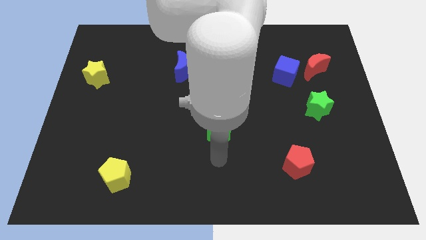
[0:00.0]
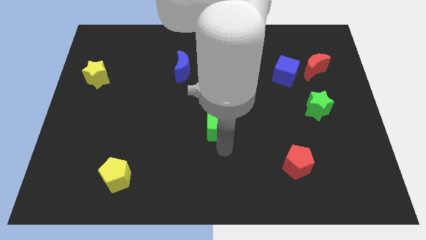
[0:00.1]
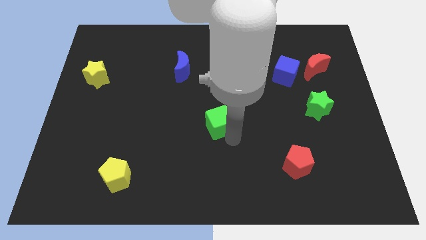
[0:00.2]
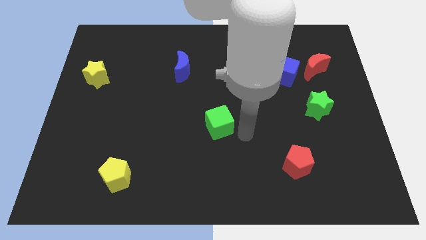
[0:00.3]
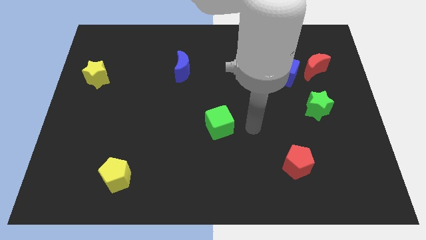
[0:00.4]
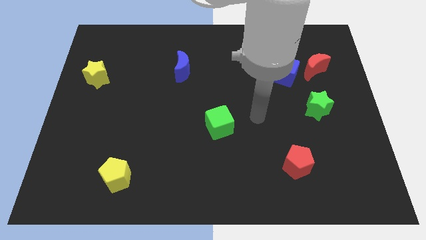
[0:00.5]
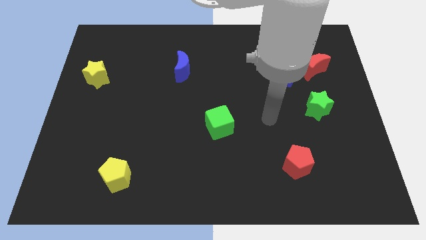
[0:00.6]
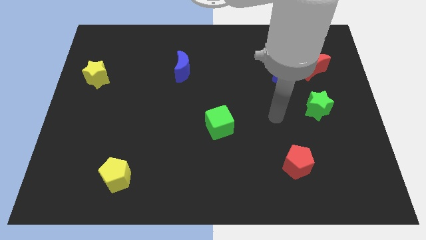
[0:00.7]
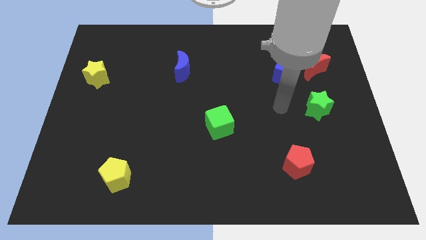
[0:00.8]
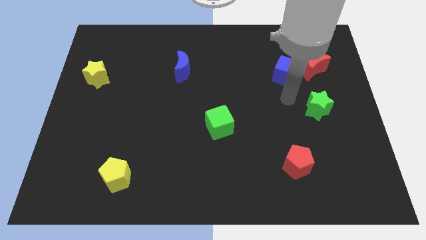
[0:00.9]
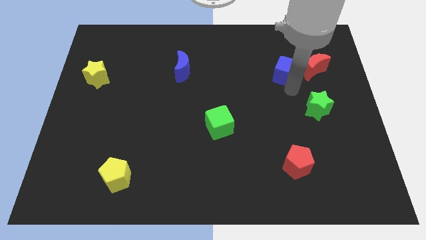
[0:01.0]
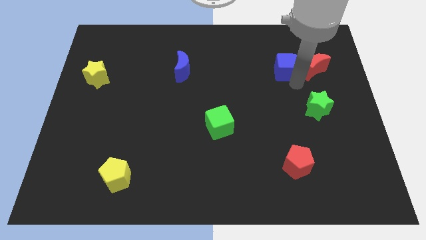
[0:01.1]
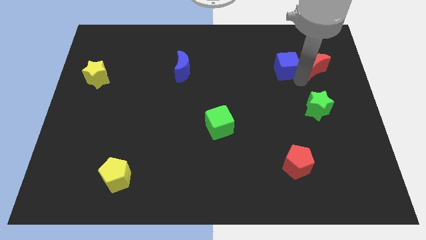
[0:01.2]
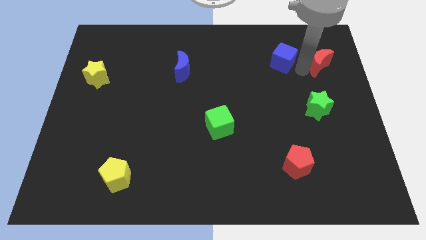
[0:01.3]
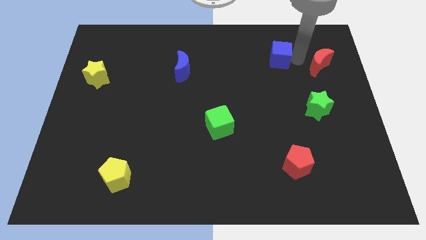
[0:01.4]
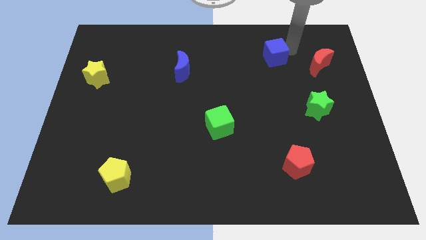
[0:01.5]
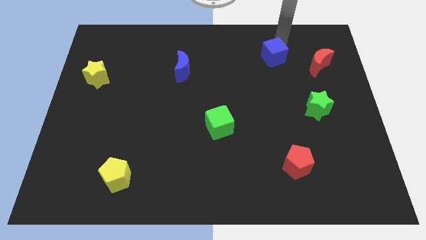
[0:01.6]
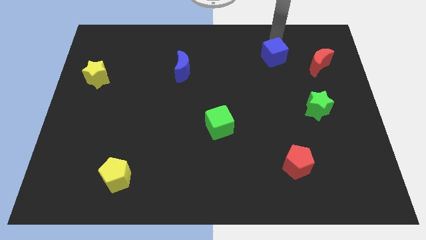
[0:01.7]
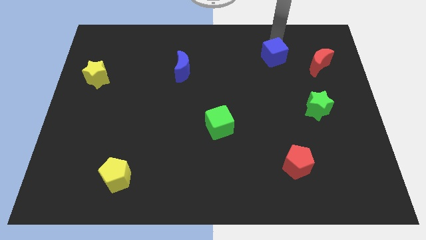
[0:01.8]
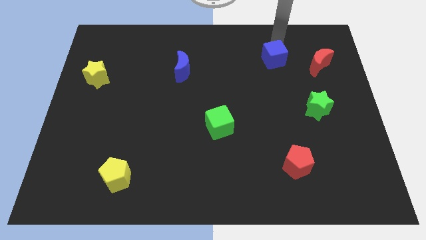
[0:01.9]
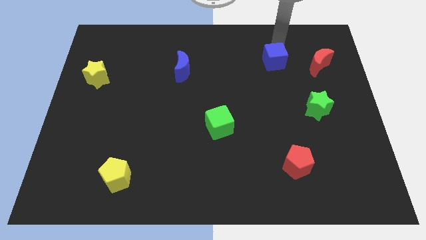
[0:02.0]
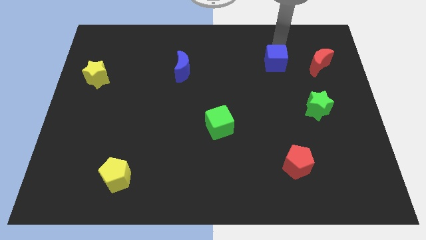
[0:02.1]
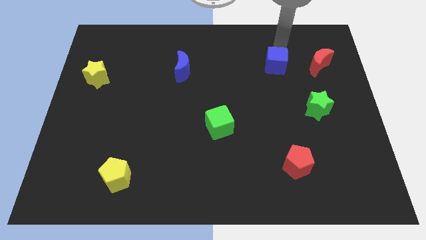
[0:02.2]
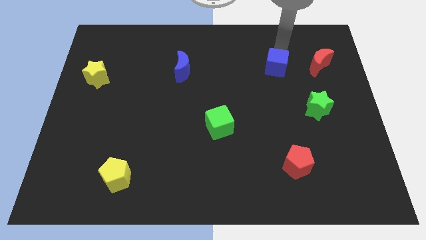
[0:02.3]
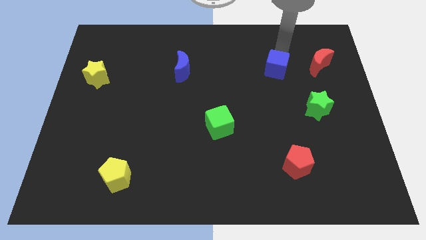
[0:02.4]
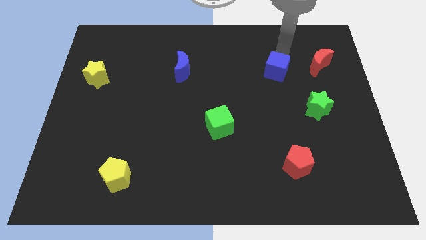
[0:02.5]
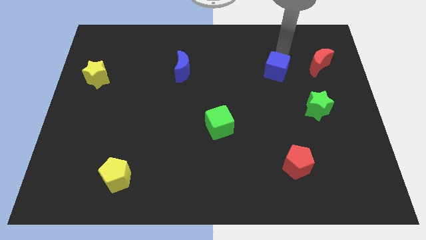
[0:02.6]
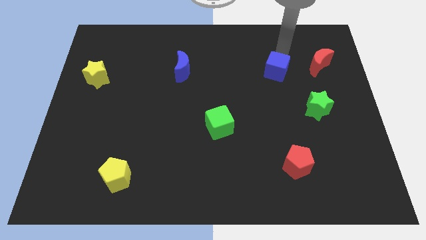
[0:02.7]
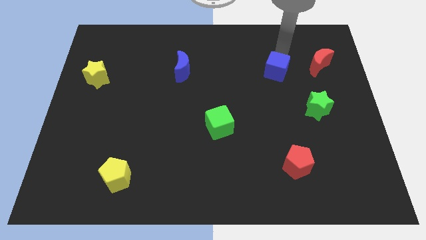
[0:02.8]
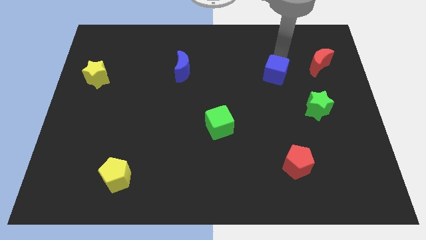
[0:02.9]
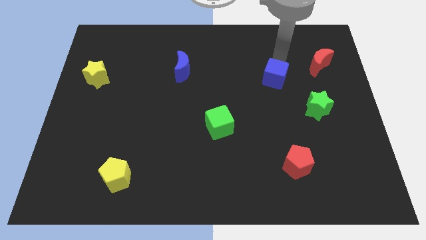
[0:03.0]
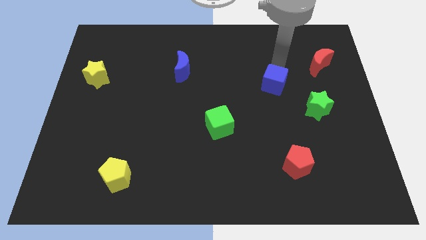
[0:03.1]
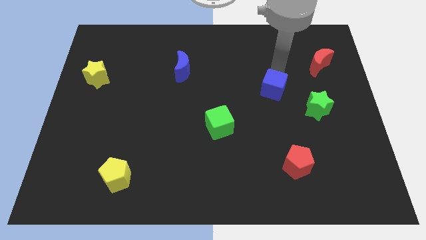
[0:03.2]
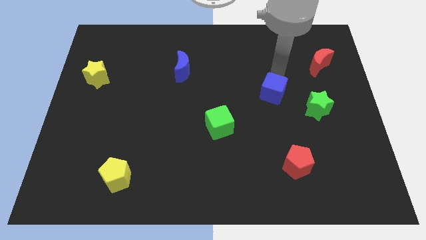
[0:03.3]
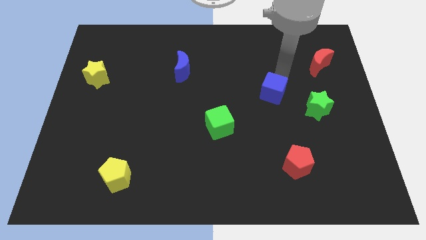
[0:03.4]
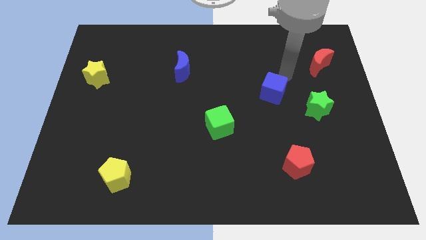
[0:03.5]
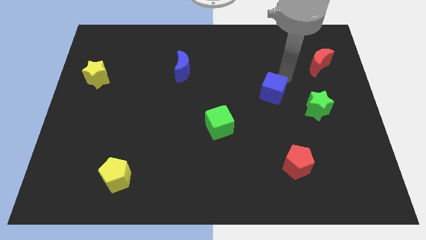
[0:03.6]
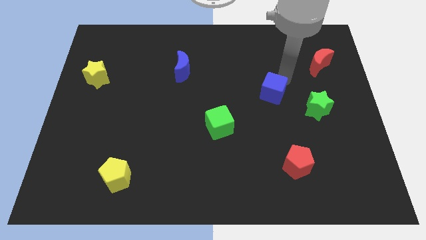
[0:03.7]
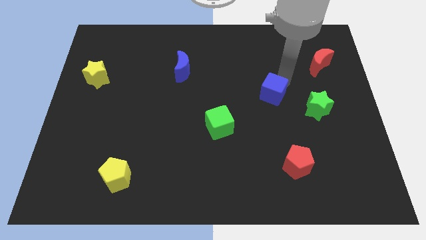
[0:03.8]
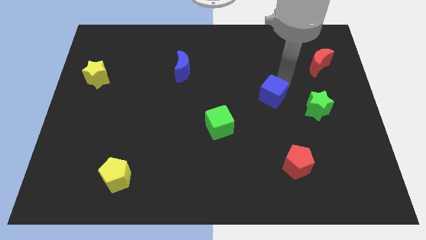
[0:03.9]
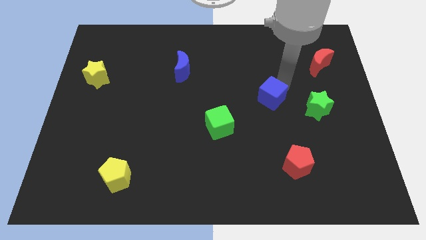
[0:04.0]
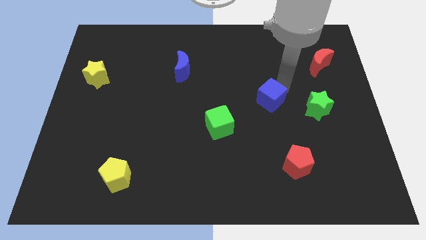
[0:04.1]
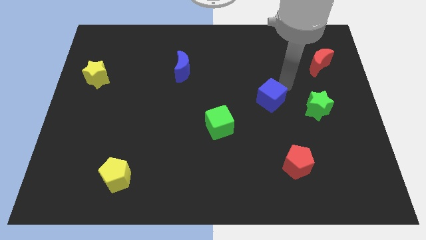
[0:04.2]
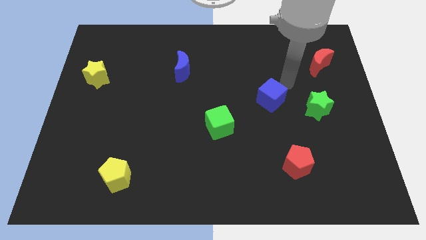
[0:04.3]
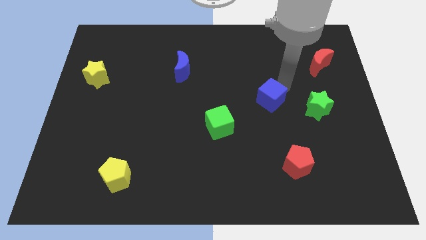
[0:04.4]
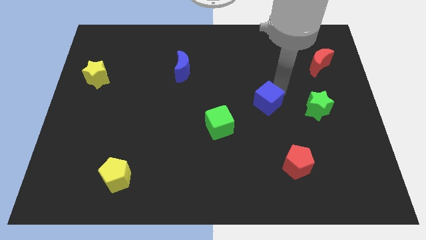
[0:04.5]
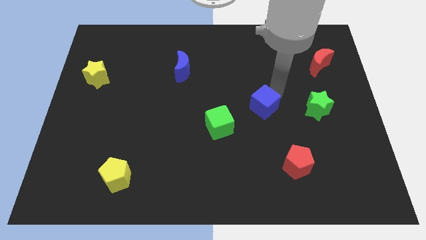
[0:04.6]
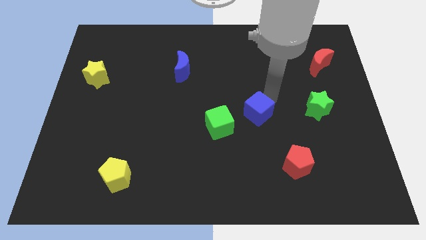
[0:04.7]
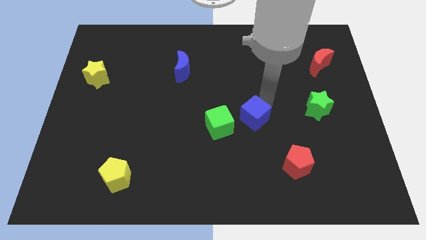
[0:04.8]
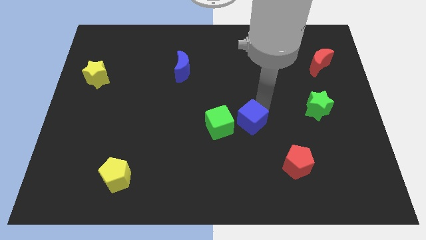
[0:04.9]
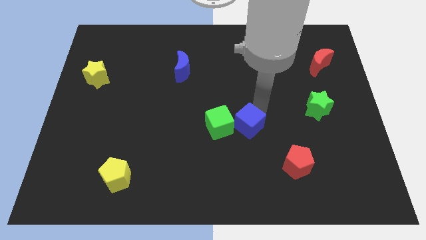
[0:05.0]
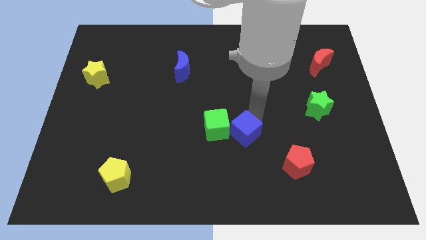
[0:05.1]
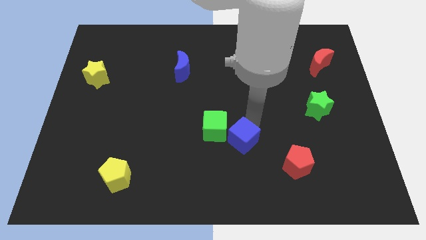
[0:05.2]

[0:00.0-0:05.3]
slide the blue cube downwards and to the left diagonally

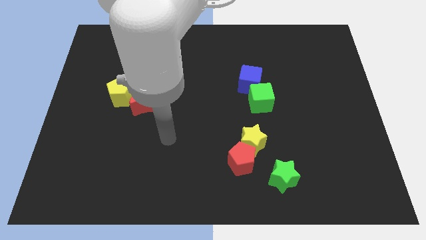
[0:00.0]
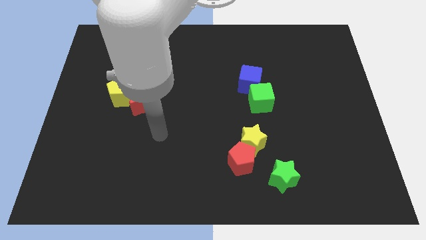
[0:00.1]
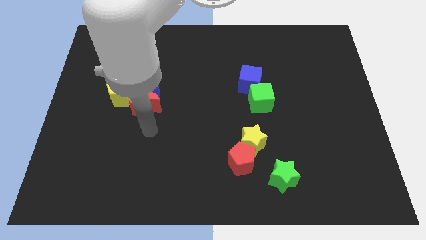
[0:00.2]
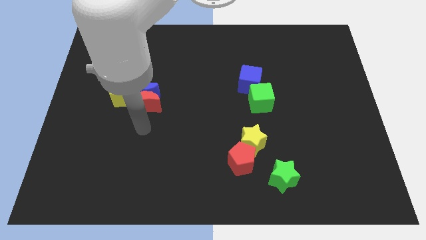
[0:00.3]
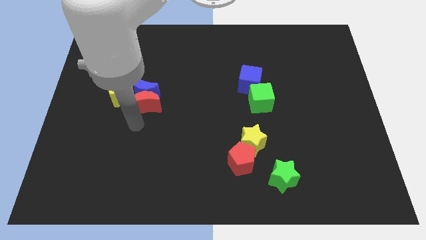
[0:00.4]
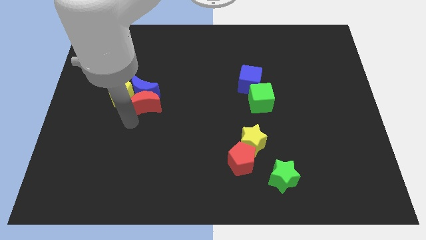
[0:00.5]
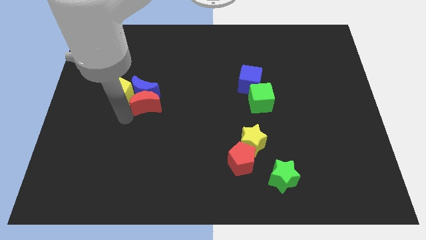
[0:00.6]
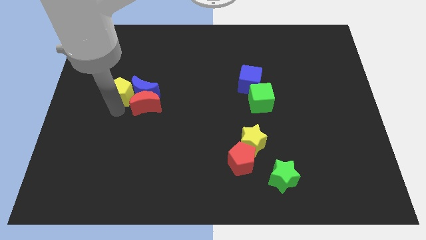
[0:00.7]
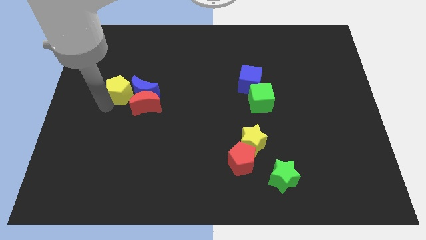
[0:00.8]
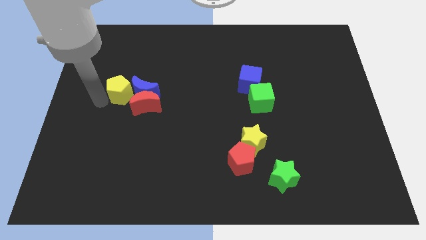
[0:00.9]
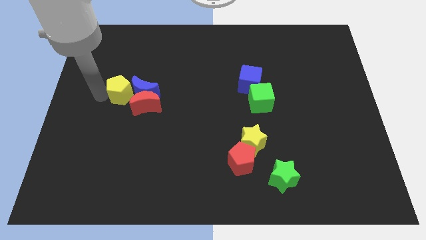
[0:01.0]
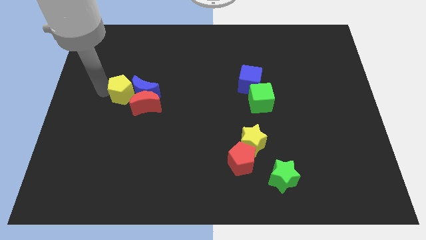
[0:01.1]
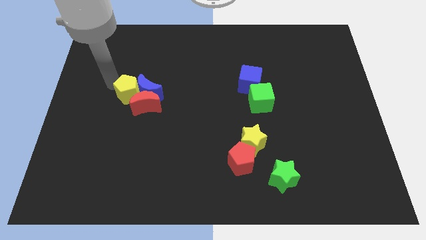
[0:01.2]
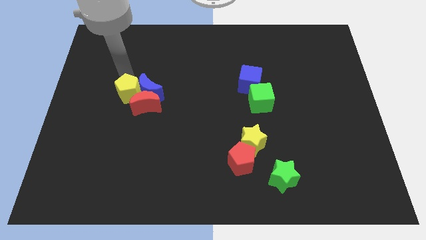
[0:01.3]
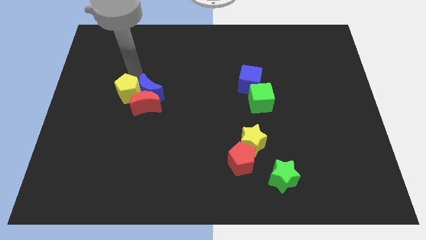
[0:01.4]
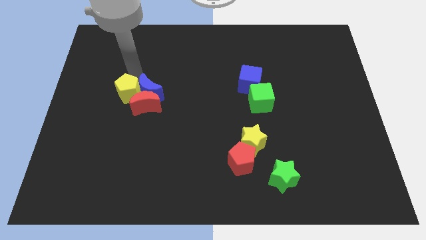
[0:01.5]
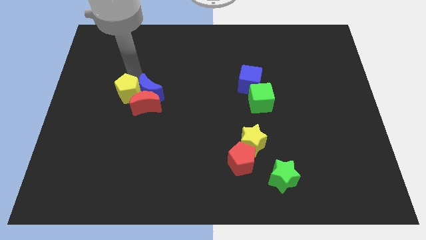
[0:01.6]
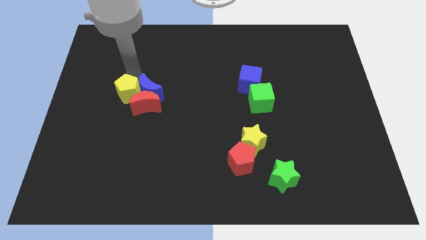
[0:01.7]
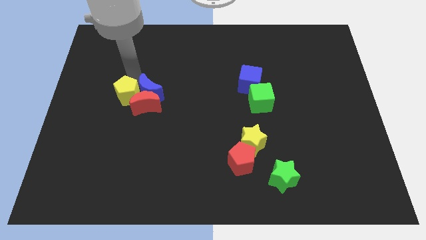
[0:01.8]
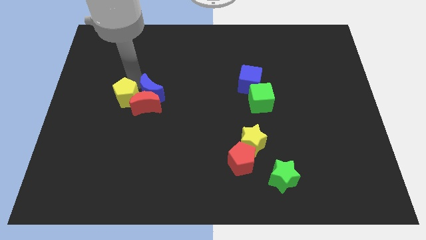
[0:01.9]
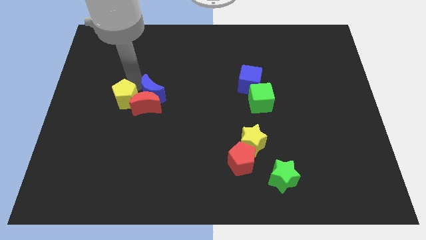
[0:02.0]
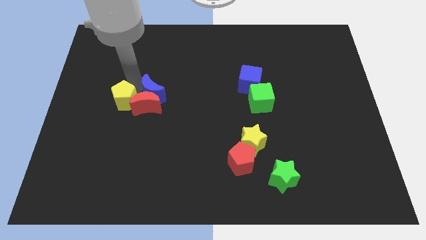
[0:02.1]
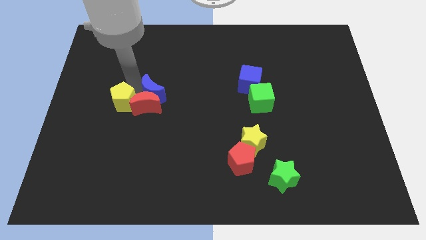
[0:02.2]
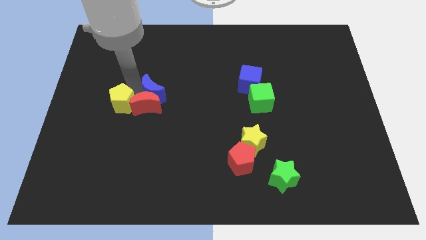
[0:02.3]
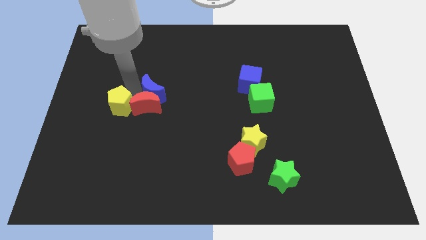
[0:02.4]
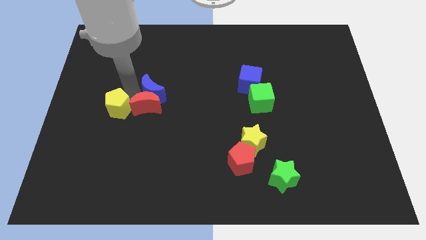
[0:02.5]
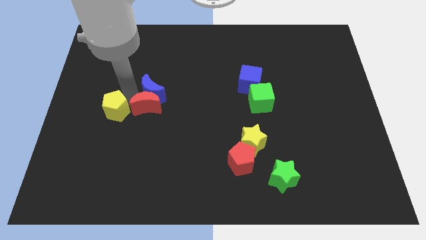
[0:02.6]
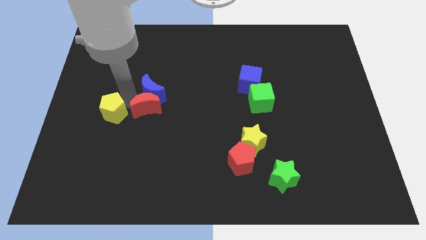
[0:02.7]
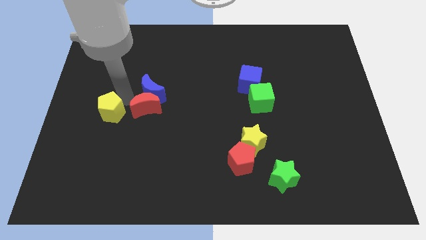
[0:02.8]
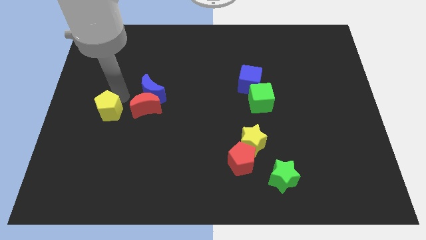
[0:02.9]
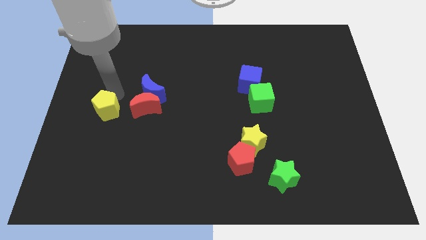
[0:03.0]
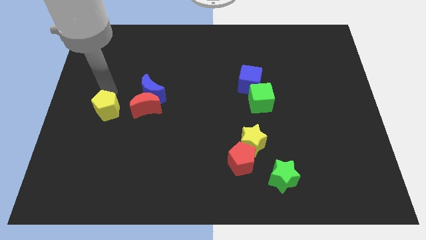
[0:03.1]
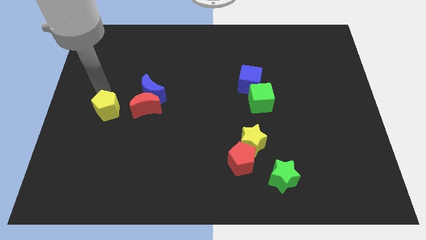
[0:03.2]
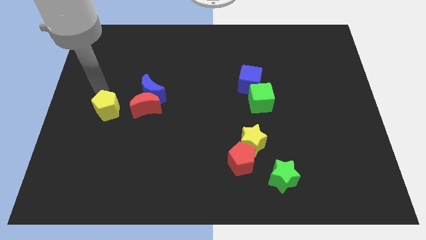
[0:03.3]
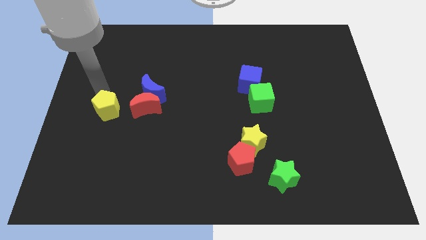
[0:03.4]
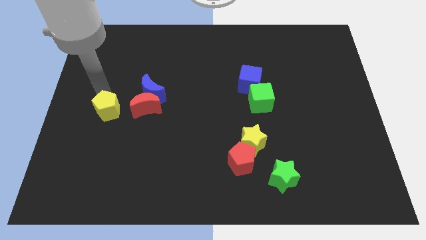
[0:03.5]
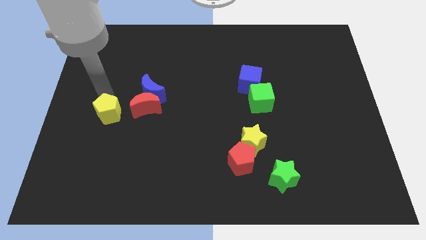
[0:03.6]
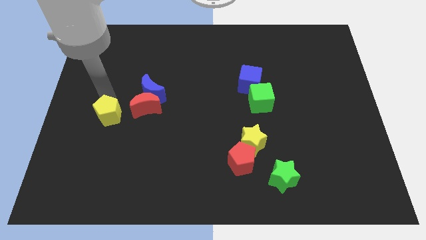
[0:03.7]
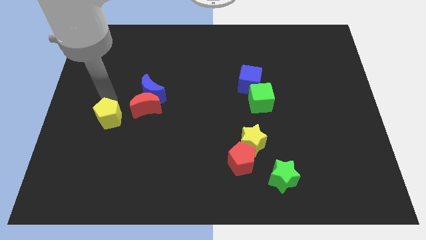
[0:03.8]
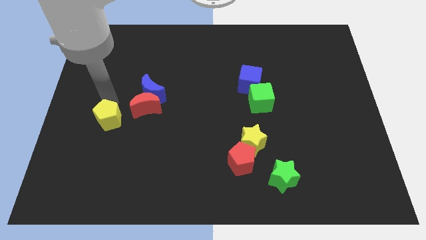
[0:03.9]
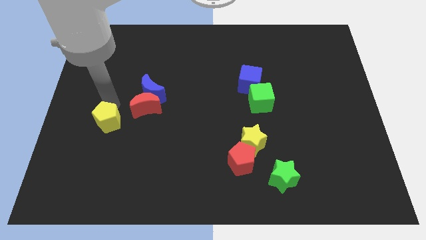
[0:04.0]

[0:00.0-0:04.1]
slide the yellow pentagon a little downwards
